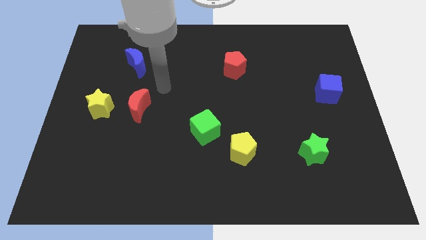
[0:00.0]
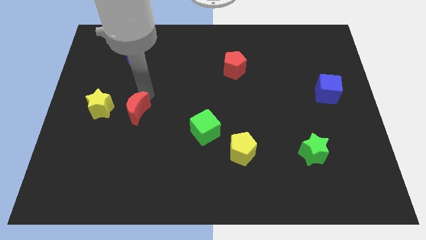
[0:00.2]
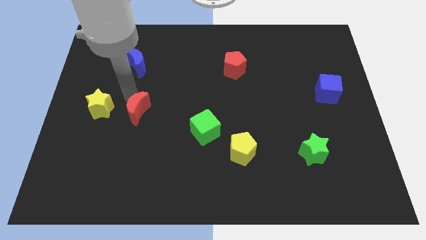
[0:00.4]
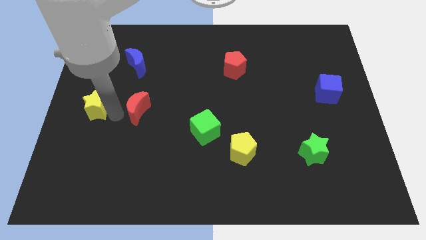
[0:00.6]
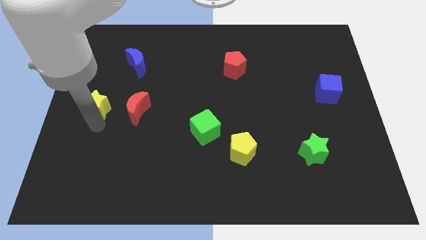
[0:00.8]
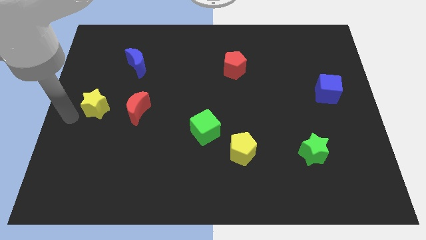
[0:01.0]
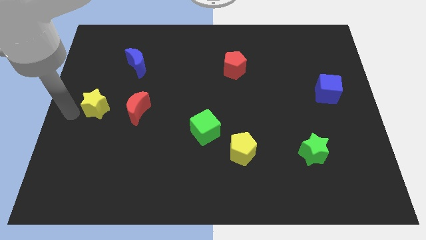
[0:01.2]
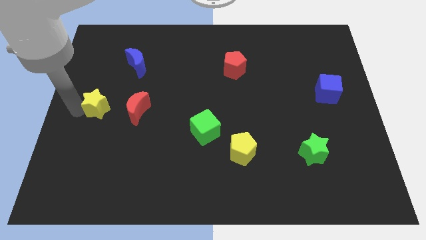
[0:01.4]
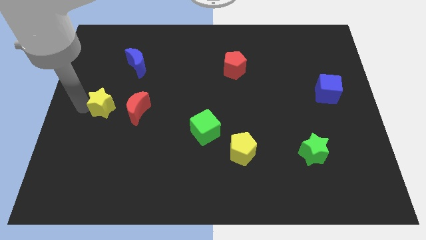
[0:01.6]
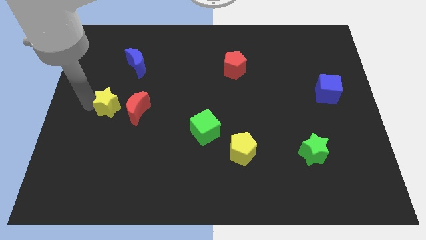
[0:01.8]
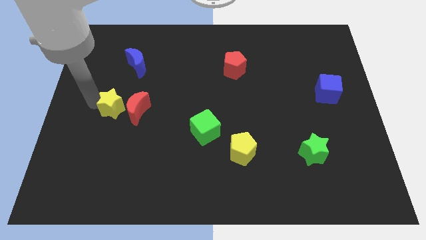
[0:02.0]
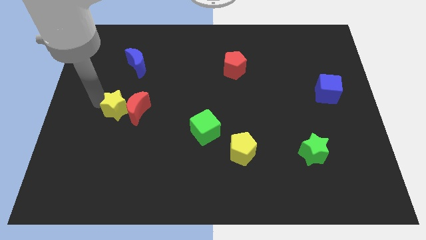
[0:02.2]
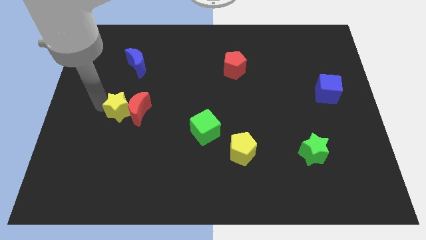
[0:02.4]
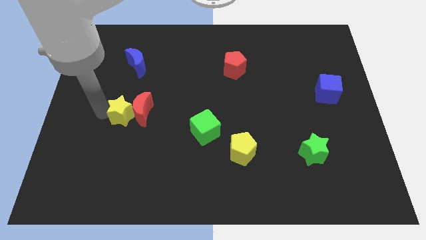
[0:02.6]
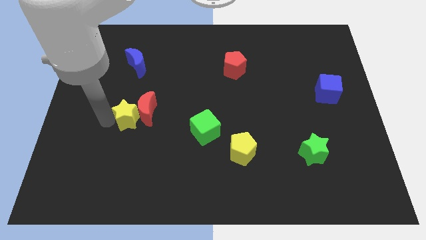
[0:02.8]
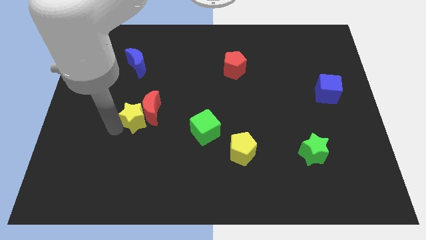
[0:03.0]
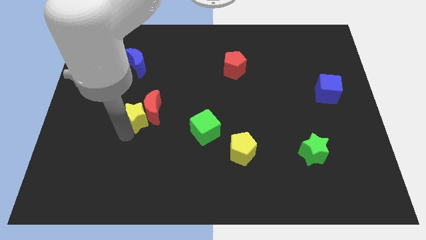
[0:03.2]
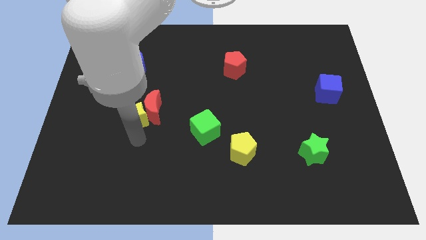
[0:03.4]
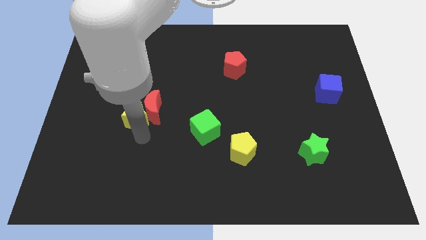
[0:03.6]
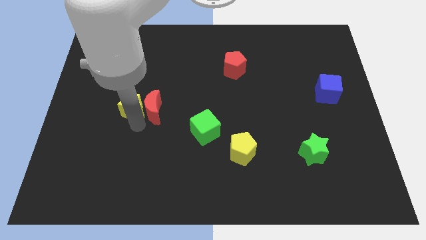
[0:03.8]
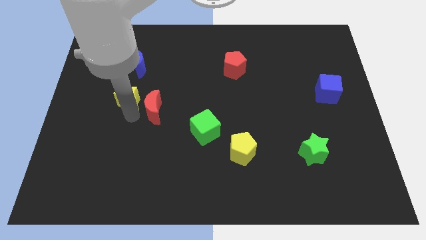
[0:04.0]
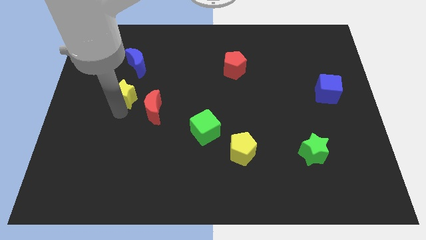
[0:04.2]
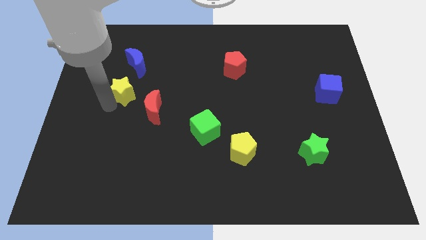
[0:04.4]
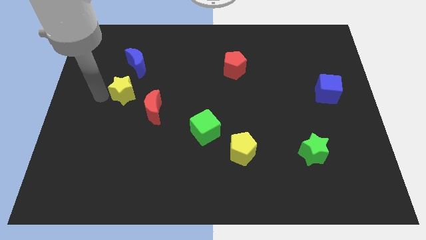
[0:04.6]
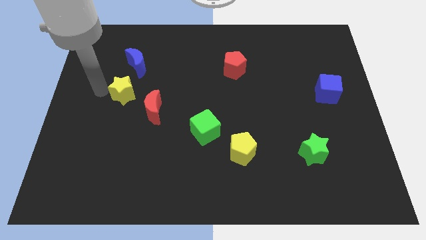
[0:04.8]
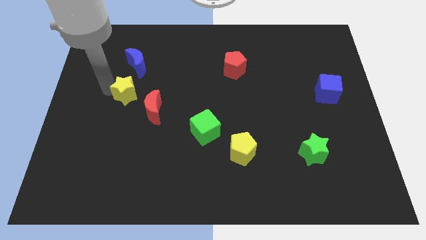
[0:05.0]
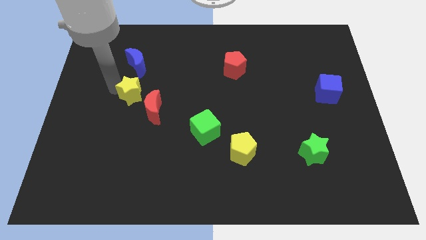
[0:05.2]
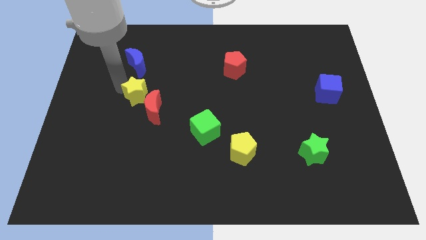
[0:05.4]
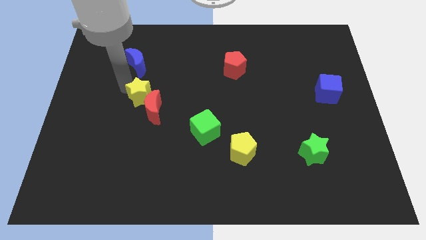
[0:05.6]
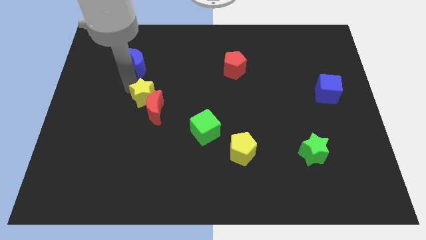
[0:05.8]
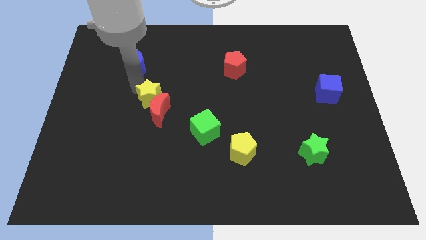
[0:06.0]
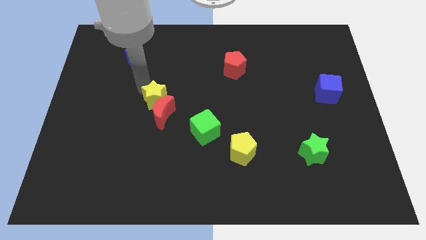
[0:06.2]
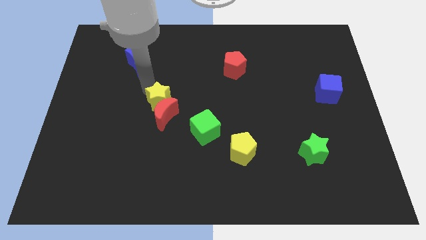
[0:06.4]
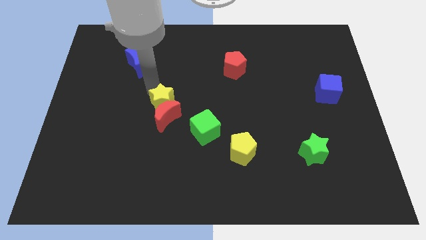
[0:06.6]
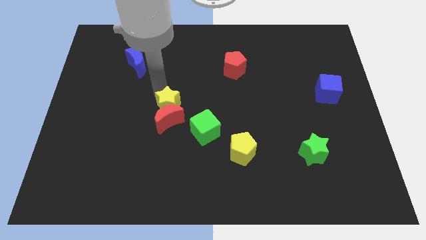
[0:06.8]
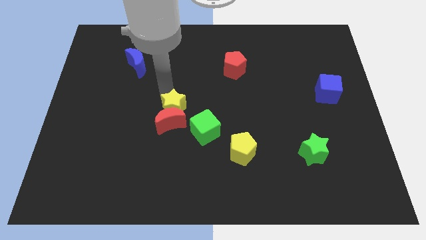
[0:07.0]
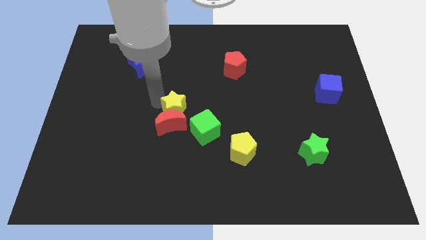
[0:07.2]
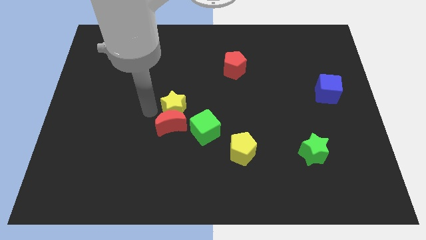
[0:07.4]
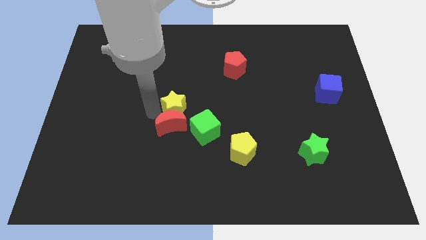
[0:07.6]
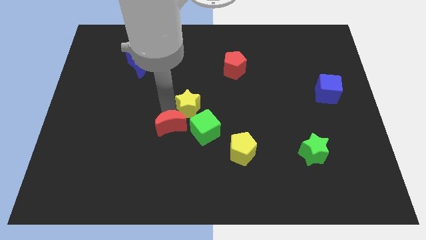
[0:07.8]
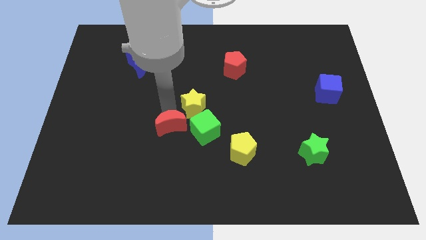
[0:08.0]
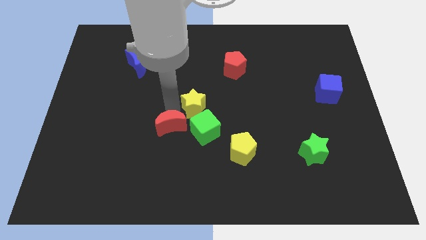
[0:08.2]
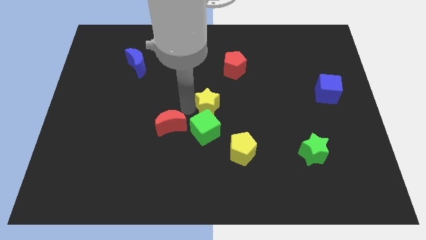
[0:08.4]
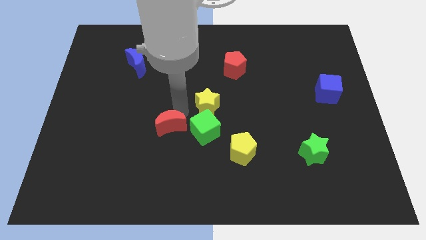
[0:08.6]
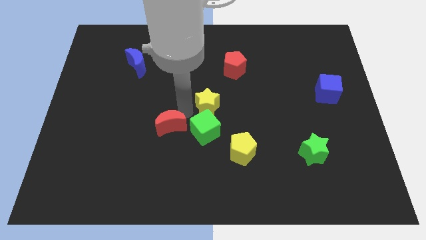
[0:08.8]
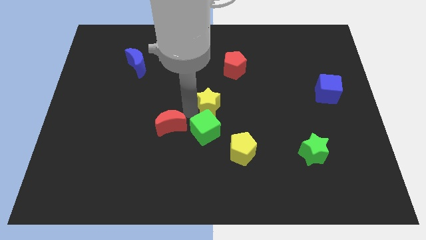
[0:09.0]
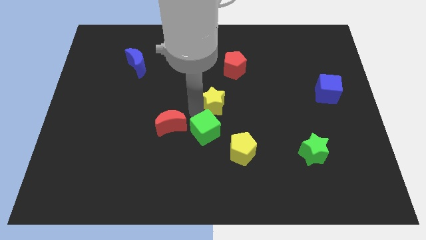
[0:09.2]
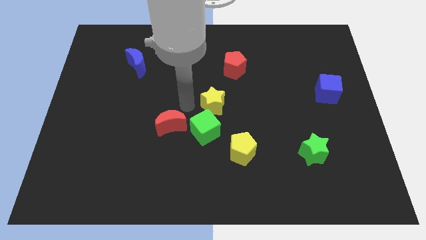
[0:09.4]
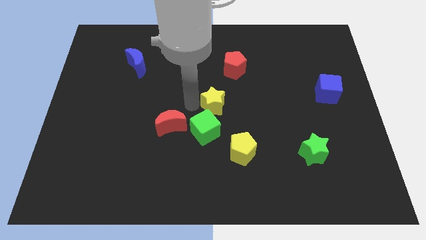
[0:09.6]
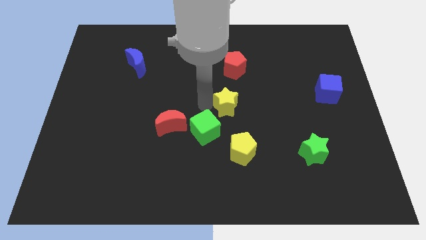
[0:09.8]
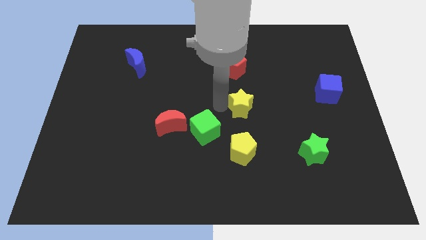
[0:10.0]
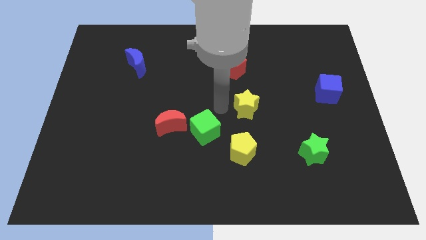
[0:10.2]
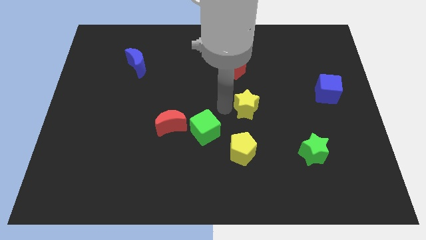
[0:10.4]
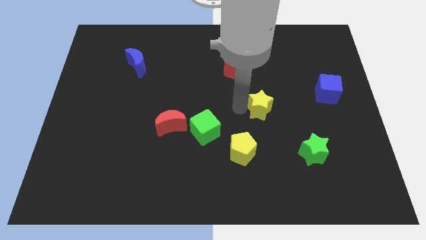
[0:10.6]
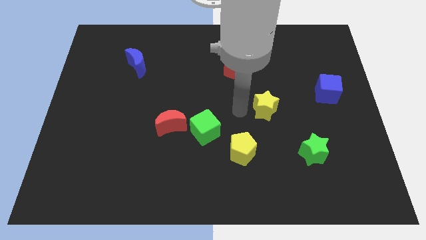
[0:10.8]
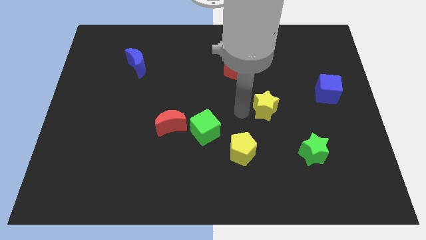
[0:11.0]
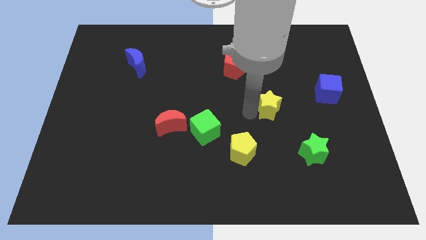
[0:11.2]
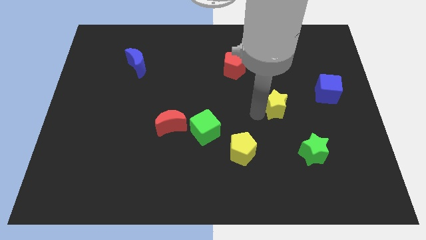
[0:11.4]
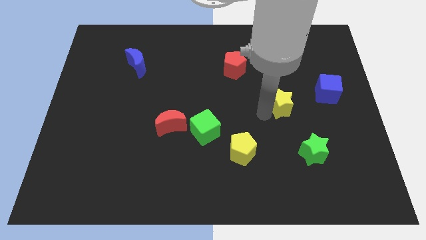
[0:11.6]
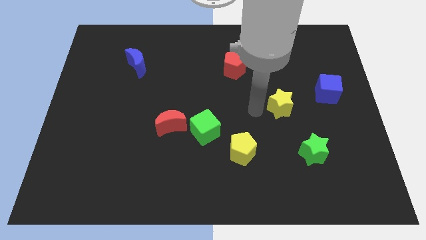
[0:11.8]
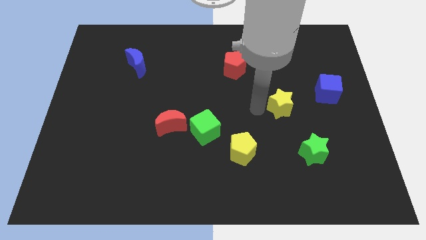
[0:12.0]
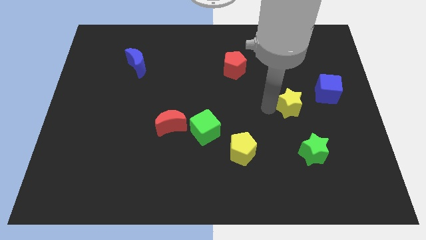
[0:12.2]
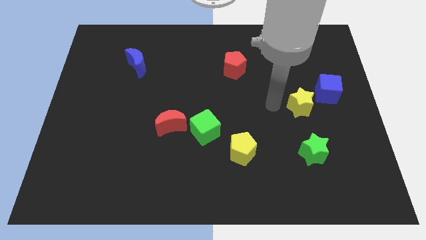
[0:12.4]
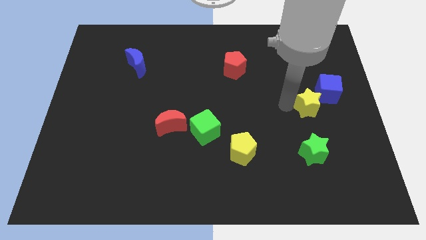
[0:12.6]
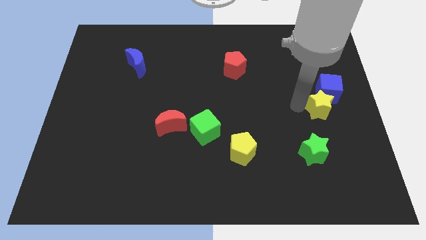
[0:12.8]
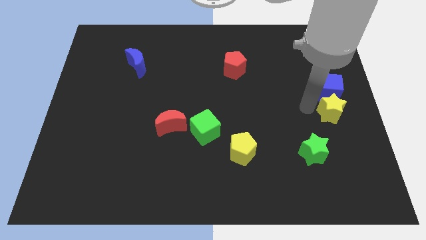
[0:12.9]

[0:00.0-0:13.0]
push the yellow star to the right side of the board
